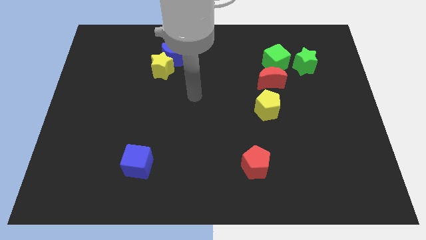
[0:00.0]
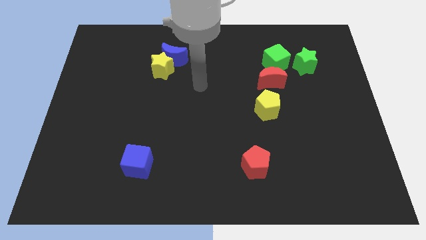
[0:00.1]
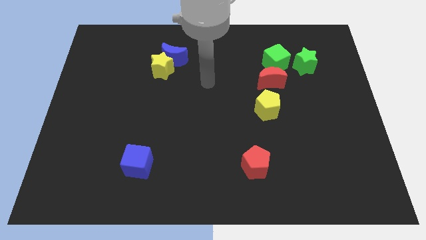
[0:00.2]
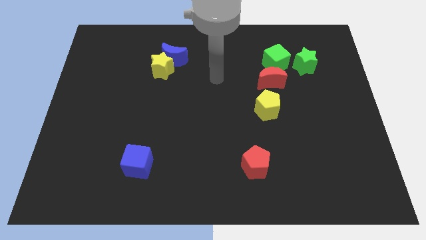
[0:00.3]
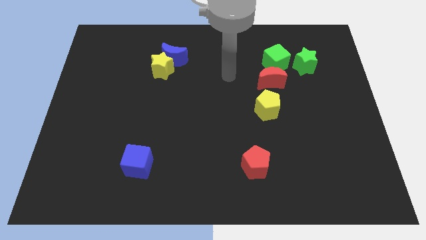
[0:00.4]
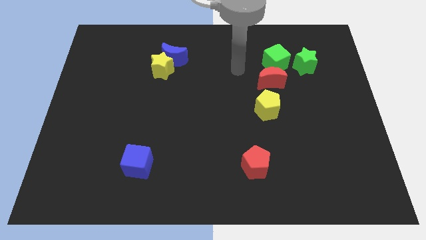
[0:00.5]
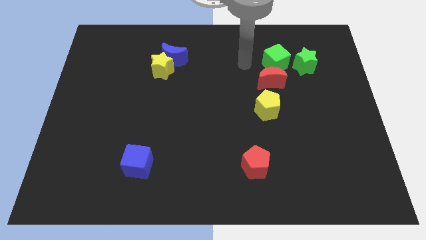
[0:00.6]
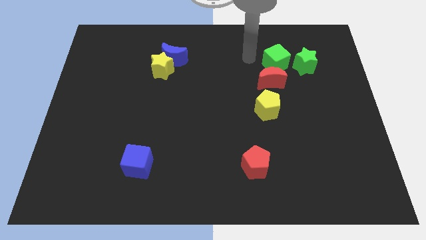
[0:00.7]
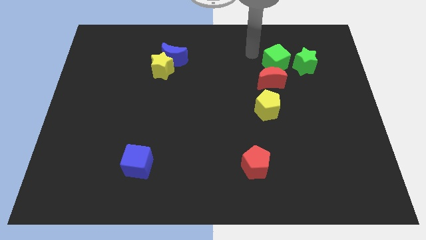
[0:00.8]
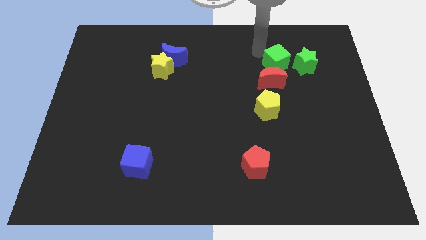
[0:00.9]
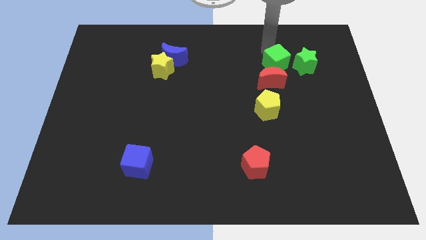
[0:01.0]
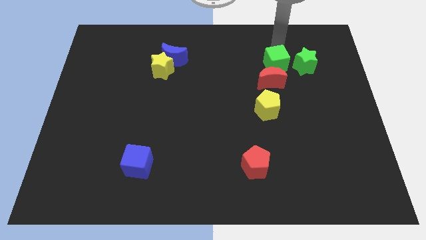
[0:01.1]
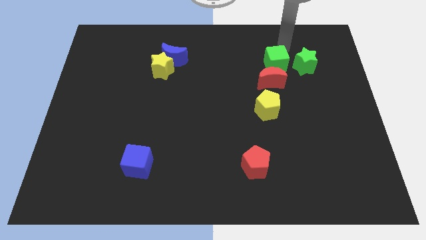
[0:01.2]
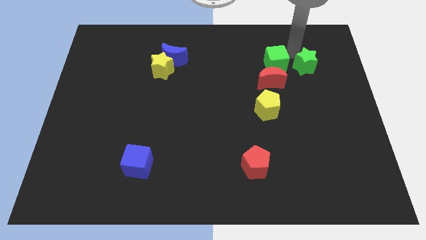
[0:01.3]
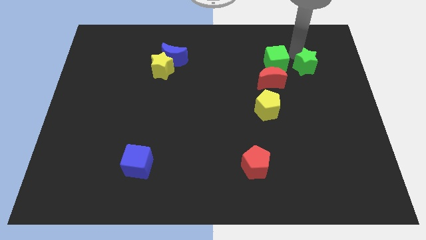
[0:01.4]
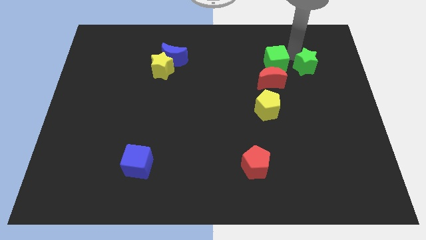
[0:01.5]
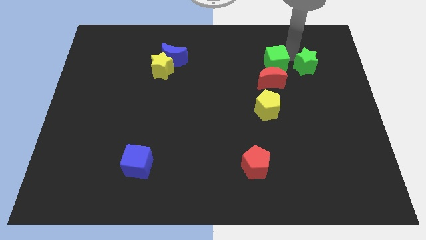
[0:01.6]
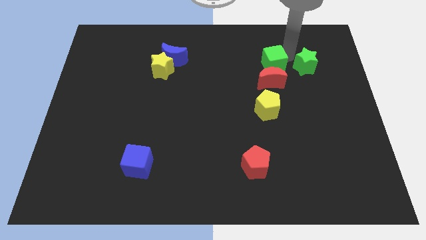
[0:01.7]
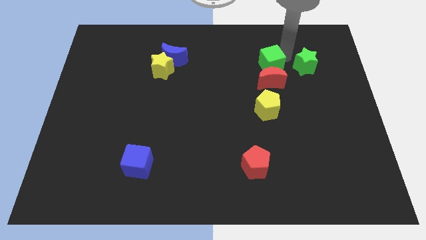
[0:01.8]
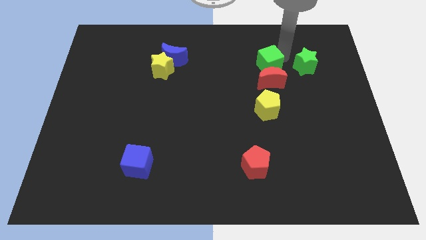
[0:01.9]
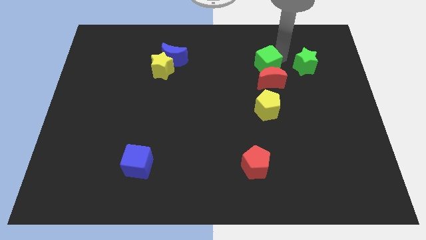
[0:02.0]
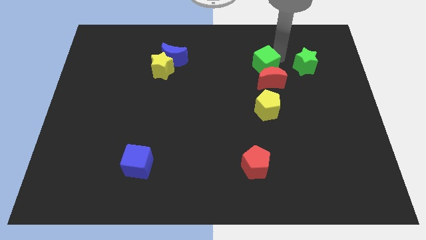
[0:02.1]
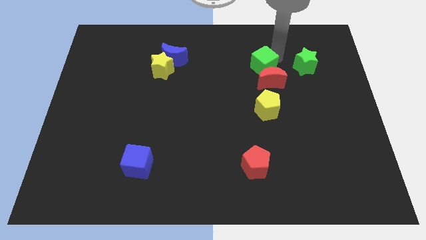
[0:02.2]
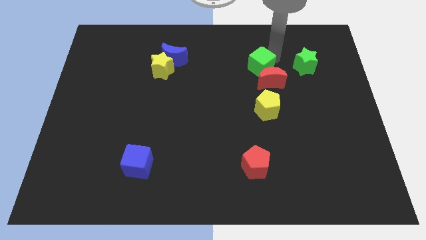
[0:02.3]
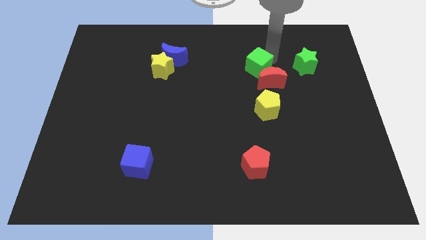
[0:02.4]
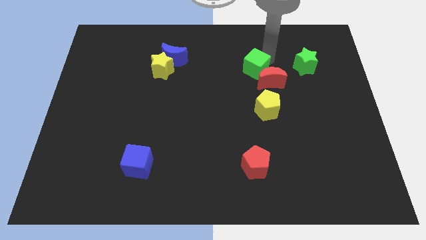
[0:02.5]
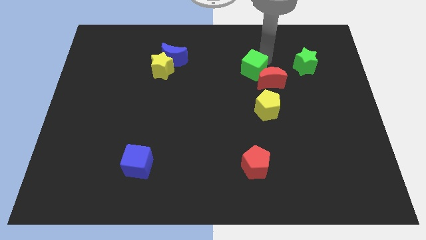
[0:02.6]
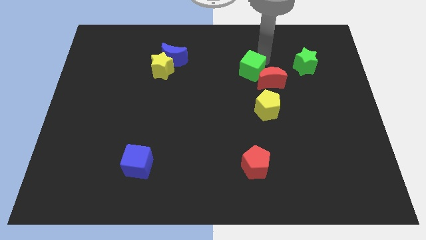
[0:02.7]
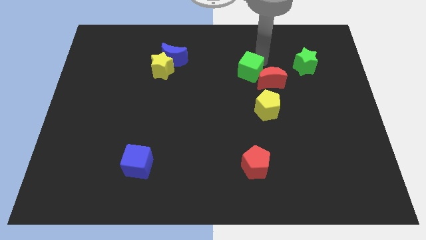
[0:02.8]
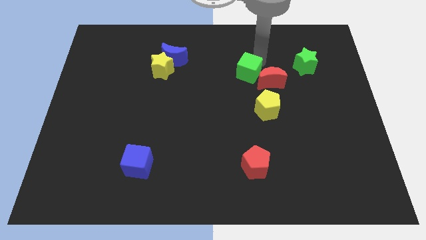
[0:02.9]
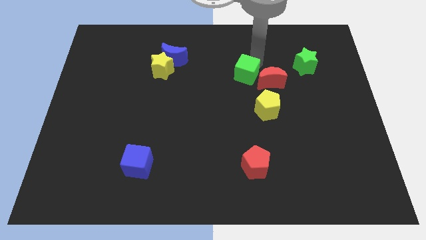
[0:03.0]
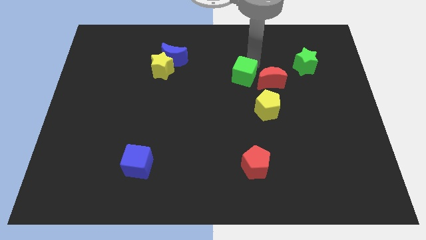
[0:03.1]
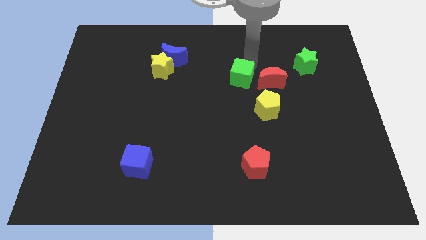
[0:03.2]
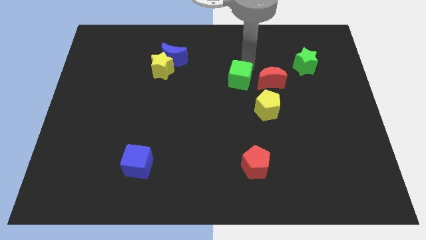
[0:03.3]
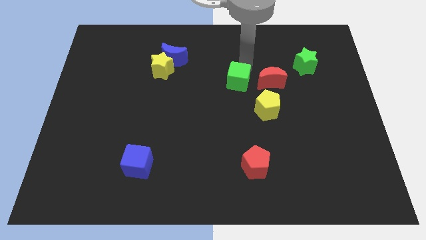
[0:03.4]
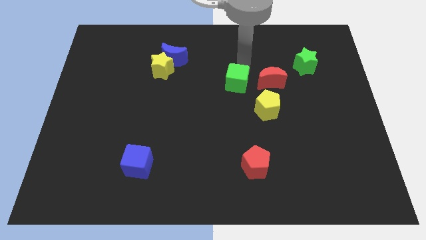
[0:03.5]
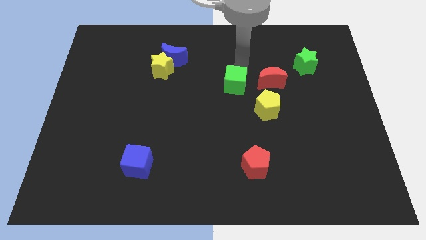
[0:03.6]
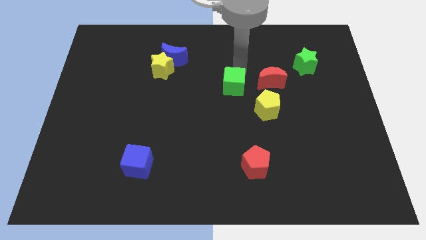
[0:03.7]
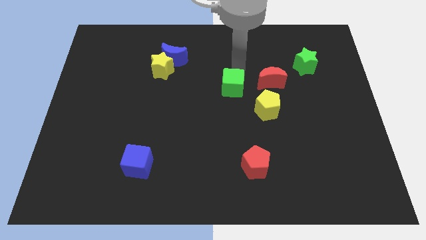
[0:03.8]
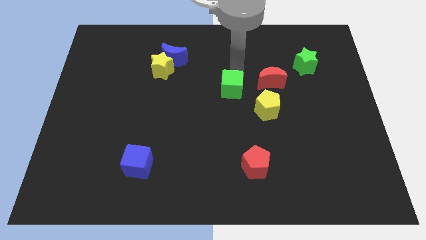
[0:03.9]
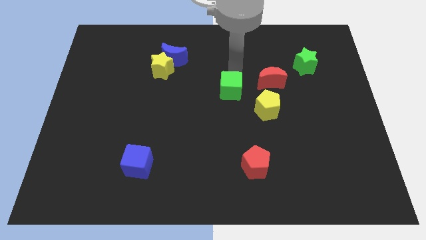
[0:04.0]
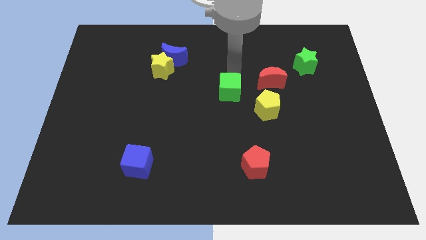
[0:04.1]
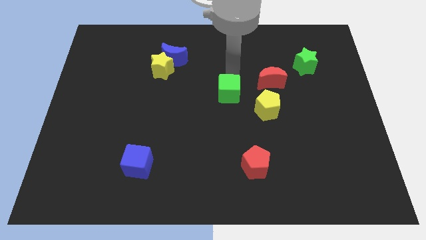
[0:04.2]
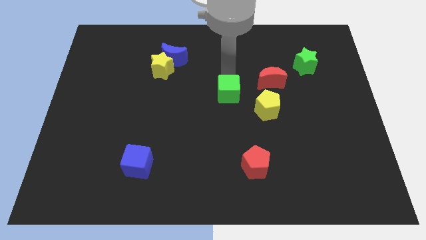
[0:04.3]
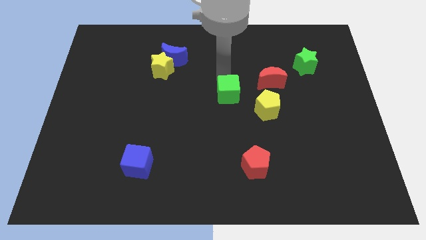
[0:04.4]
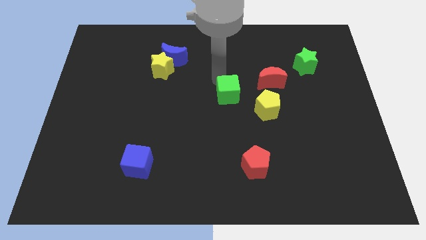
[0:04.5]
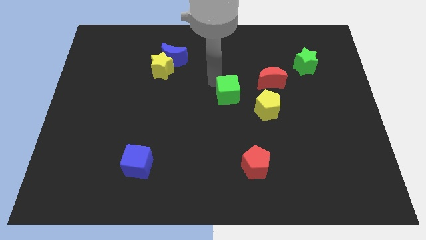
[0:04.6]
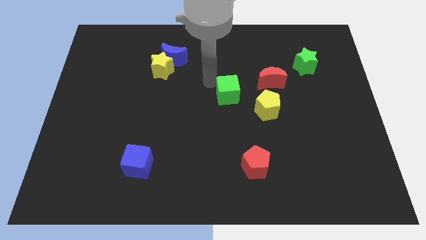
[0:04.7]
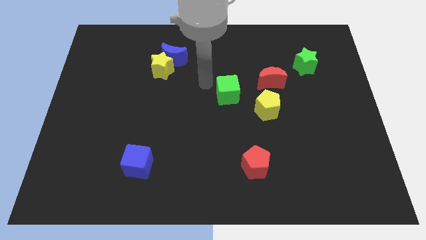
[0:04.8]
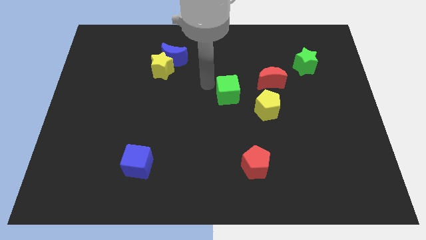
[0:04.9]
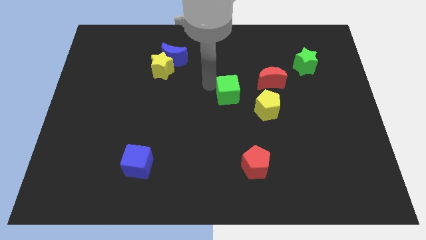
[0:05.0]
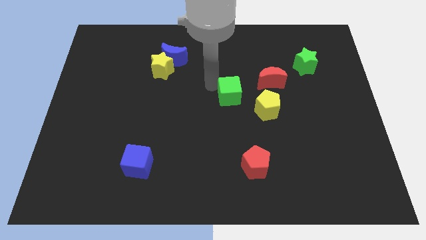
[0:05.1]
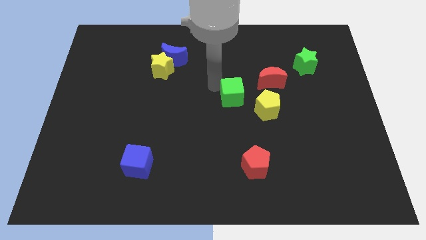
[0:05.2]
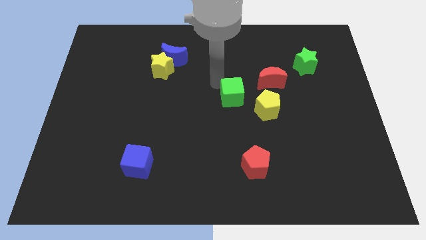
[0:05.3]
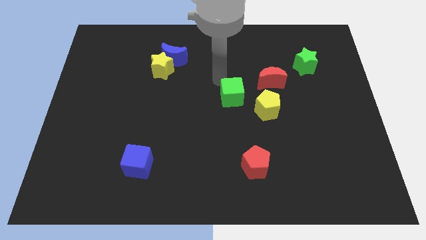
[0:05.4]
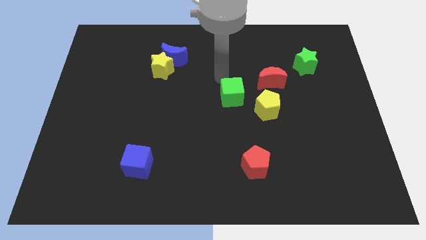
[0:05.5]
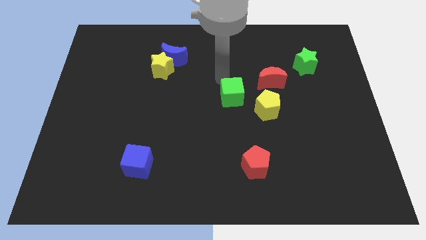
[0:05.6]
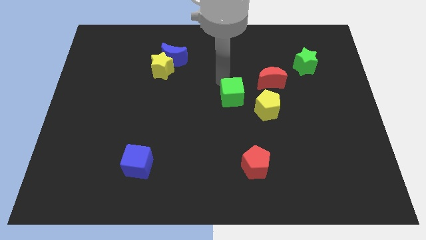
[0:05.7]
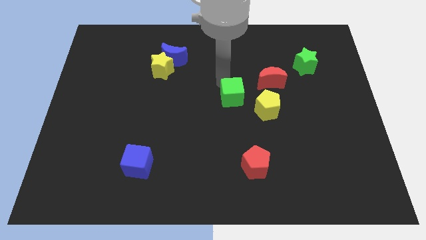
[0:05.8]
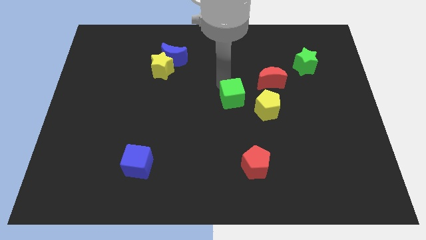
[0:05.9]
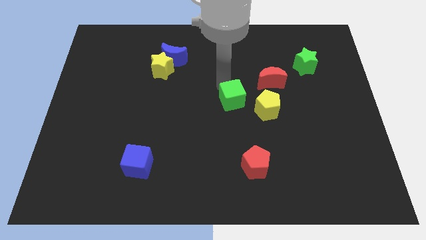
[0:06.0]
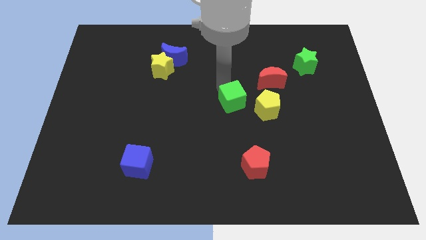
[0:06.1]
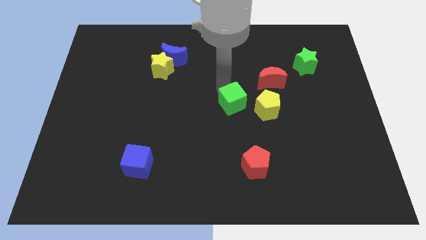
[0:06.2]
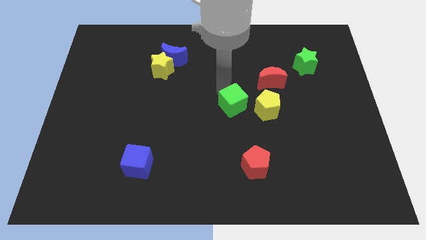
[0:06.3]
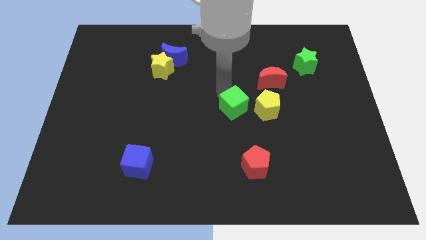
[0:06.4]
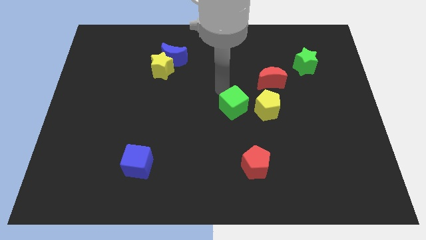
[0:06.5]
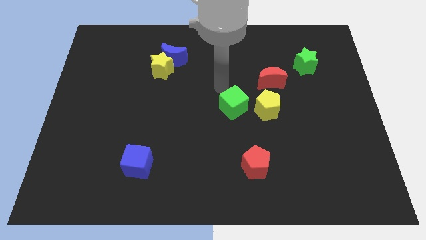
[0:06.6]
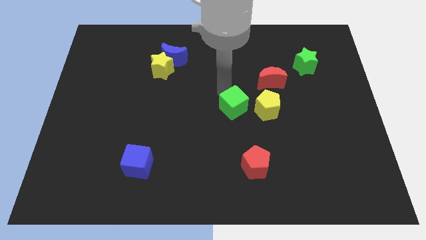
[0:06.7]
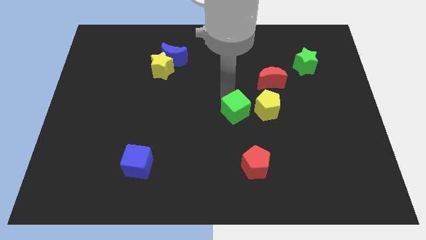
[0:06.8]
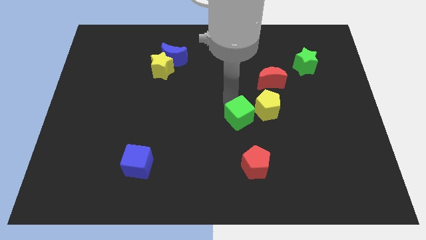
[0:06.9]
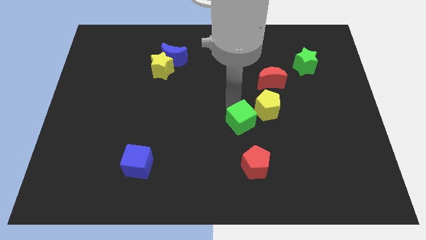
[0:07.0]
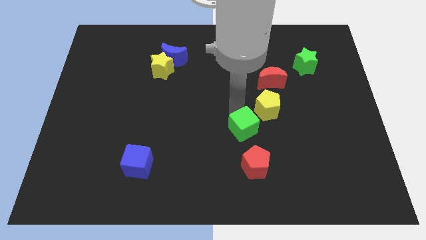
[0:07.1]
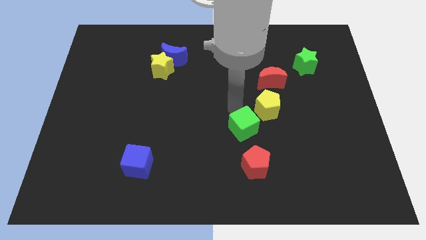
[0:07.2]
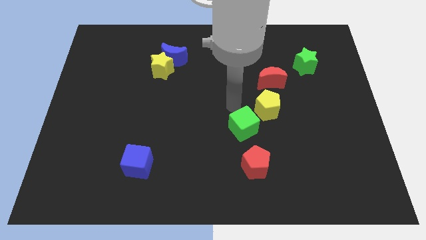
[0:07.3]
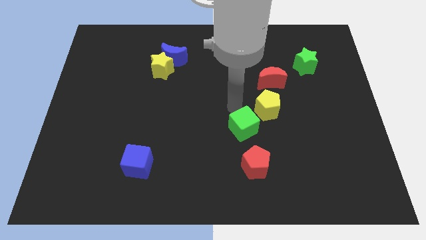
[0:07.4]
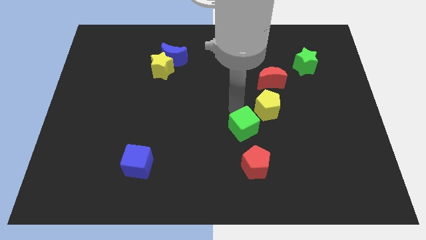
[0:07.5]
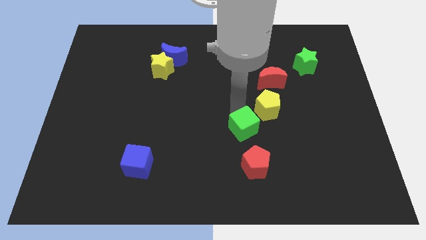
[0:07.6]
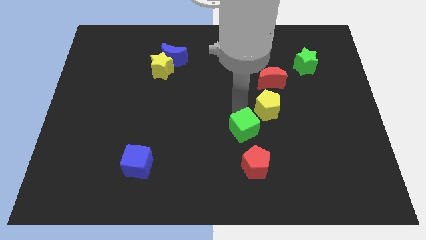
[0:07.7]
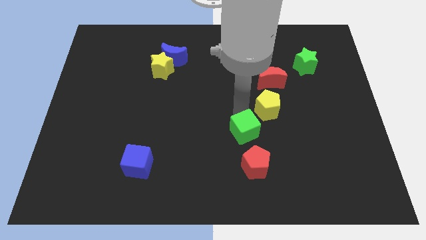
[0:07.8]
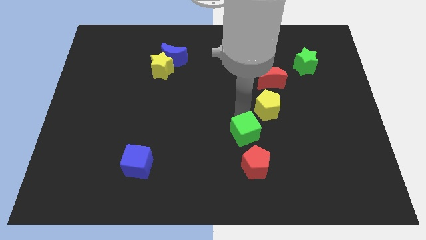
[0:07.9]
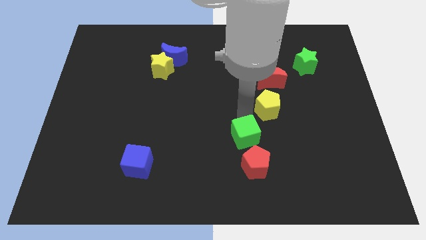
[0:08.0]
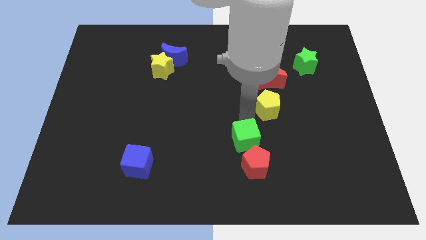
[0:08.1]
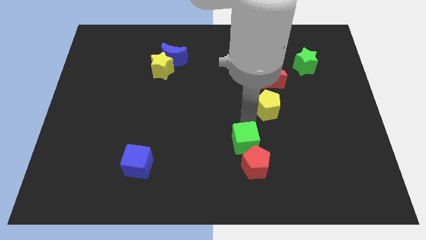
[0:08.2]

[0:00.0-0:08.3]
move the green cube to the red pentagon

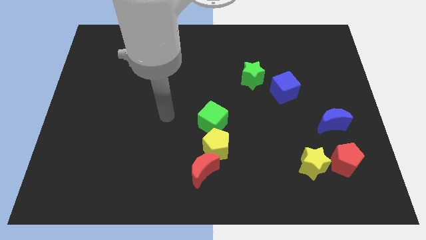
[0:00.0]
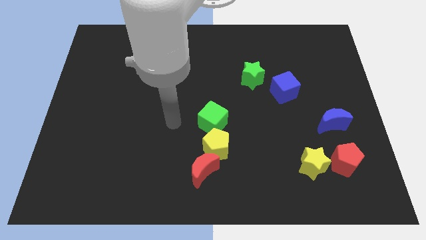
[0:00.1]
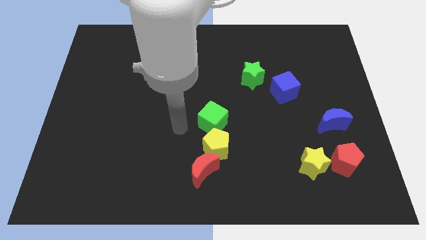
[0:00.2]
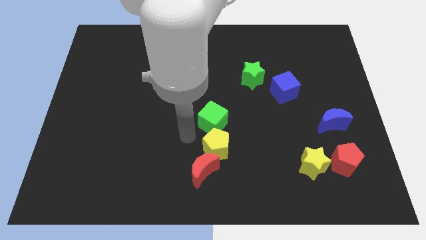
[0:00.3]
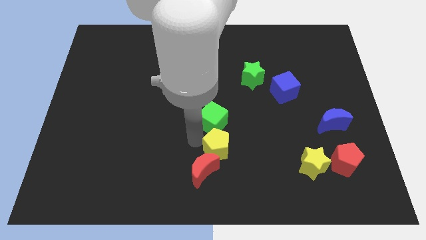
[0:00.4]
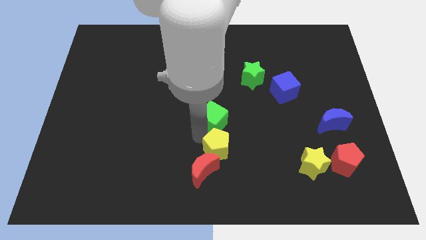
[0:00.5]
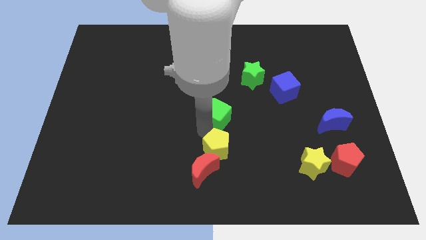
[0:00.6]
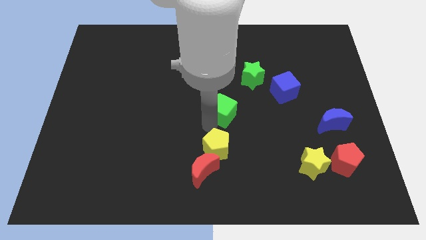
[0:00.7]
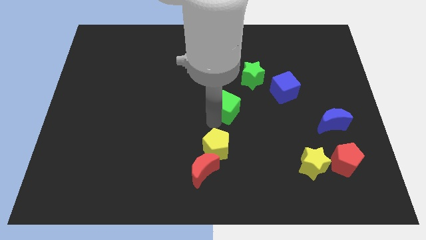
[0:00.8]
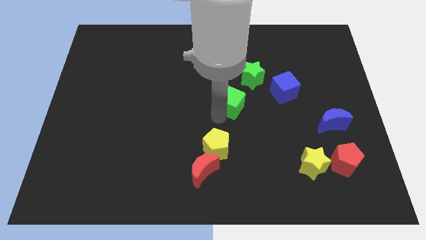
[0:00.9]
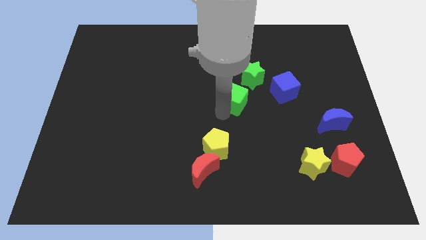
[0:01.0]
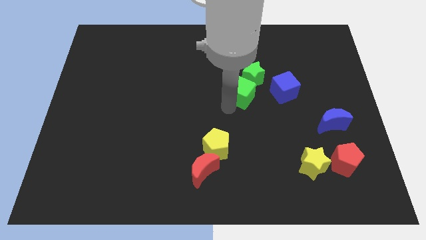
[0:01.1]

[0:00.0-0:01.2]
move the green cube towards the green star
